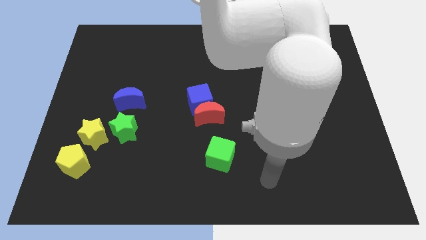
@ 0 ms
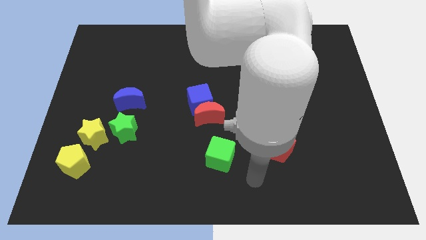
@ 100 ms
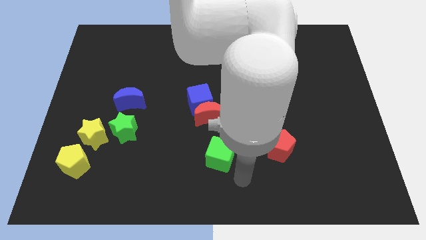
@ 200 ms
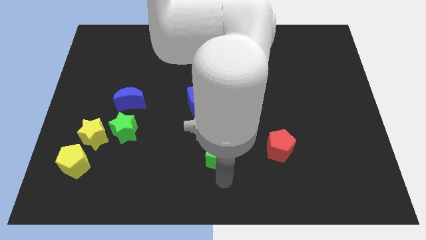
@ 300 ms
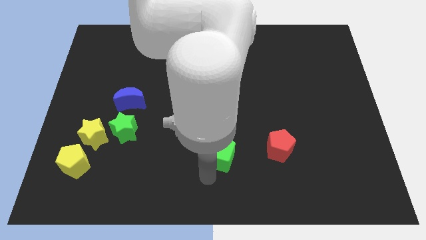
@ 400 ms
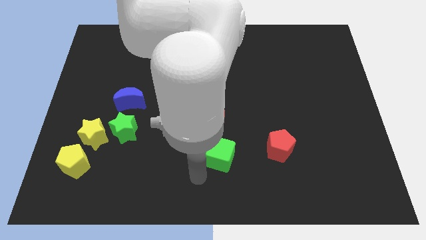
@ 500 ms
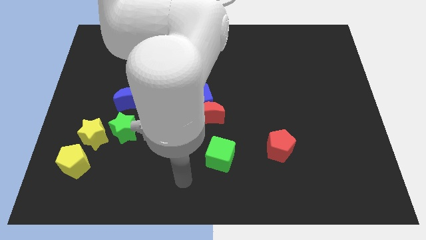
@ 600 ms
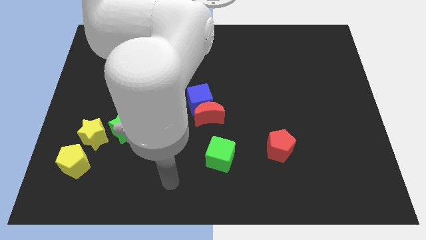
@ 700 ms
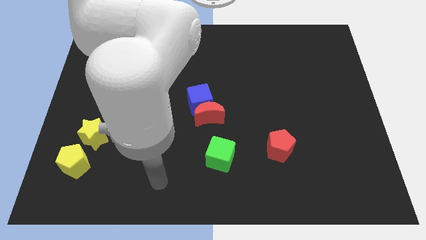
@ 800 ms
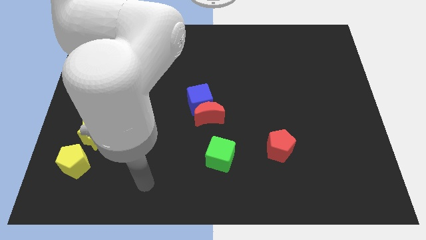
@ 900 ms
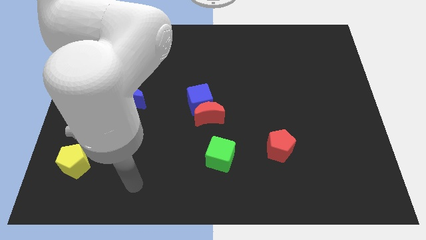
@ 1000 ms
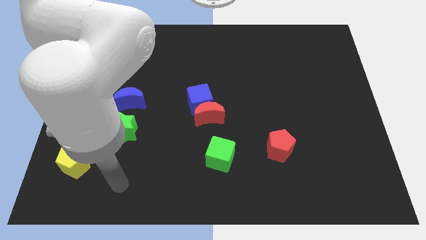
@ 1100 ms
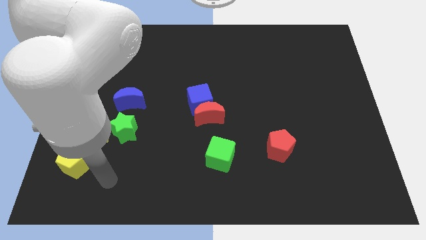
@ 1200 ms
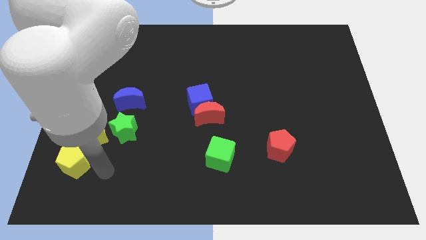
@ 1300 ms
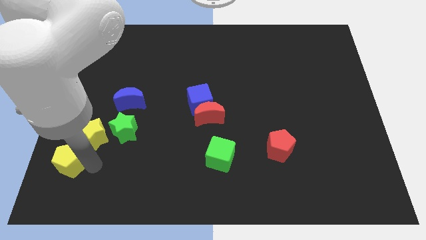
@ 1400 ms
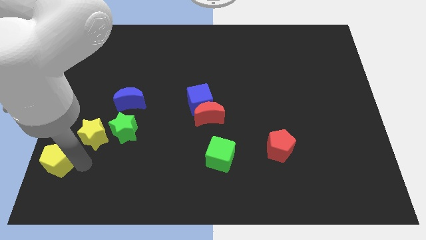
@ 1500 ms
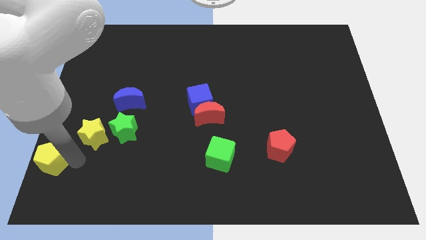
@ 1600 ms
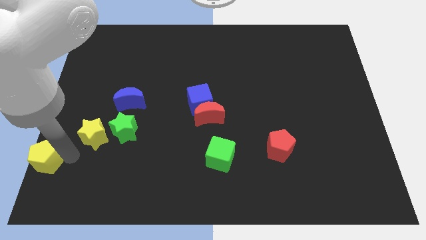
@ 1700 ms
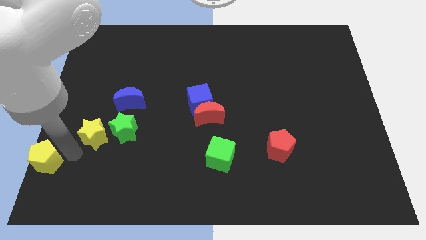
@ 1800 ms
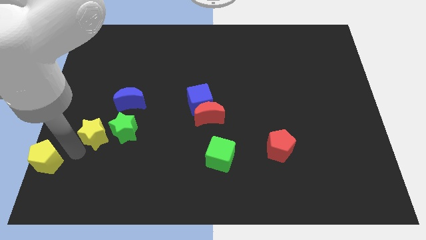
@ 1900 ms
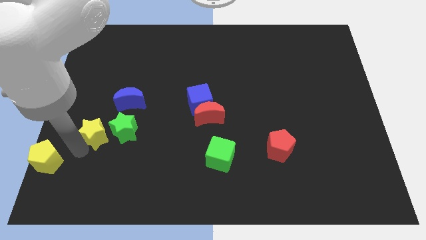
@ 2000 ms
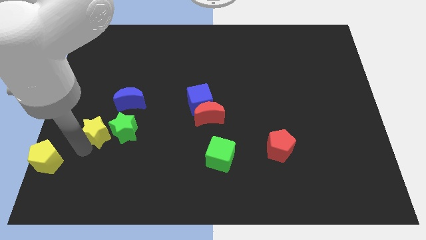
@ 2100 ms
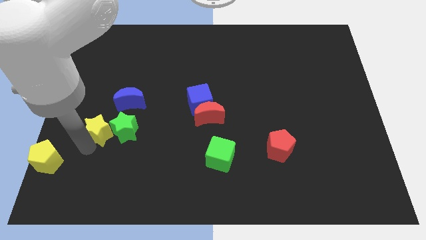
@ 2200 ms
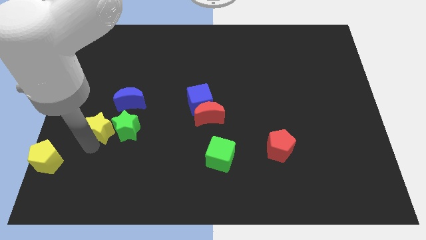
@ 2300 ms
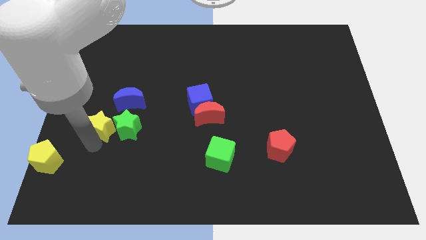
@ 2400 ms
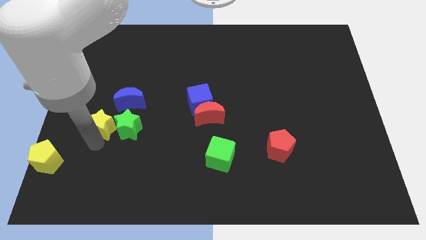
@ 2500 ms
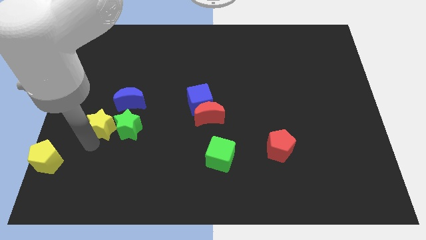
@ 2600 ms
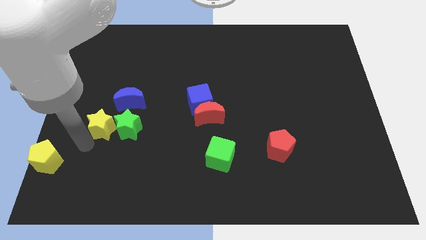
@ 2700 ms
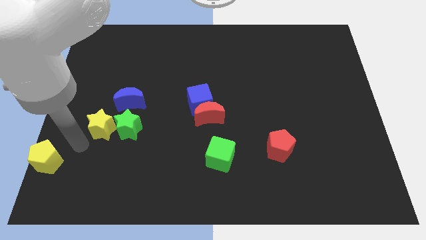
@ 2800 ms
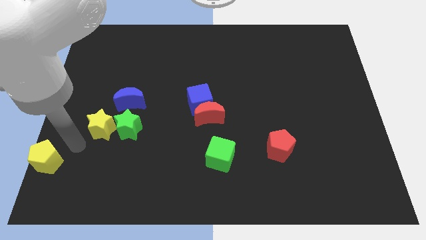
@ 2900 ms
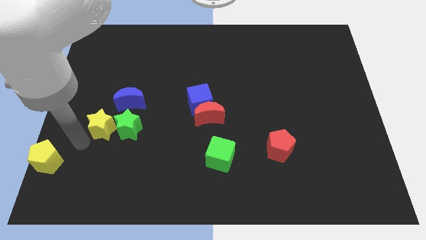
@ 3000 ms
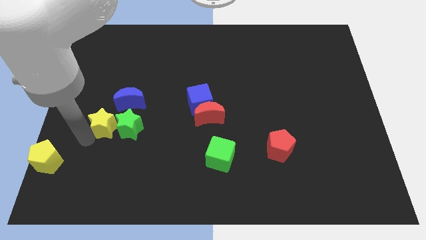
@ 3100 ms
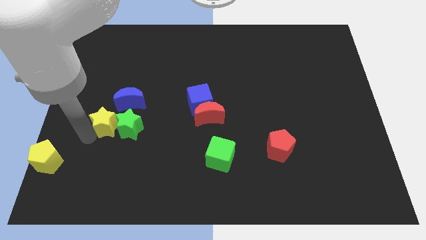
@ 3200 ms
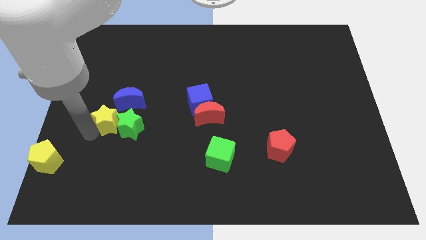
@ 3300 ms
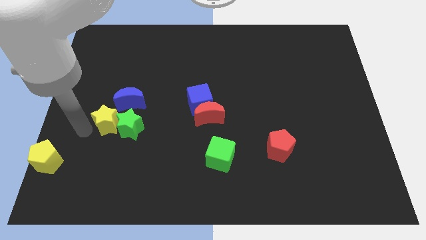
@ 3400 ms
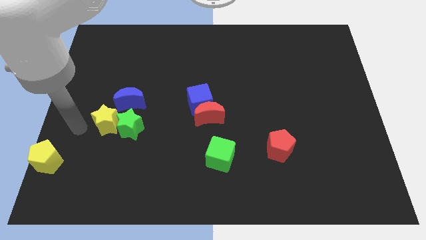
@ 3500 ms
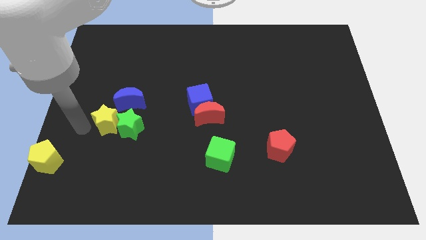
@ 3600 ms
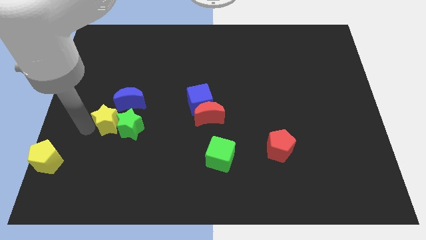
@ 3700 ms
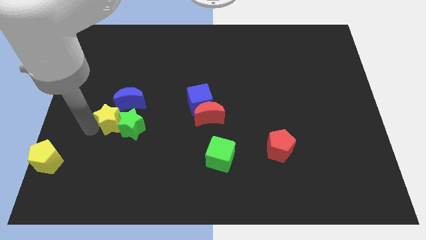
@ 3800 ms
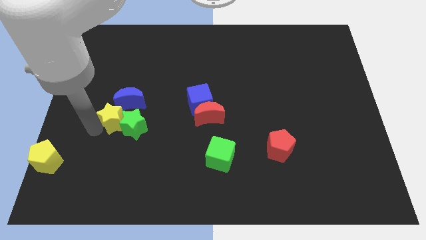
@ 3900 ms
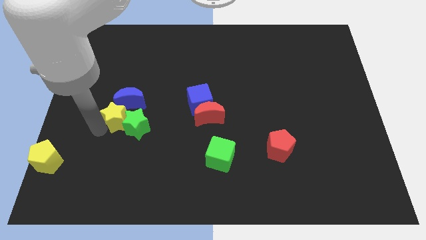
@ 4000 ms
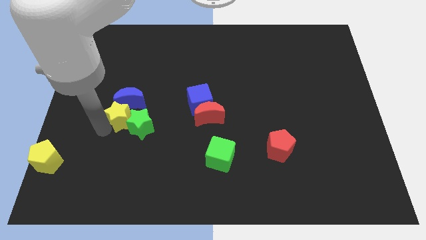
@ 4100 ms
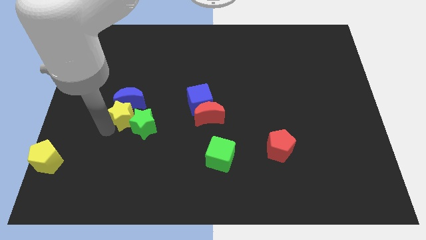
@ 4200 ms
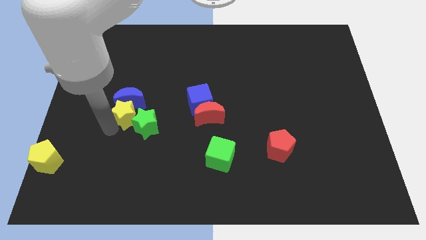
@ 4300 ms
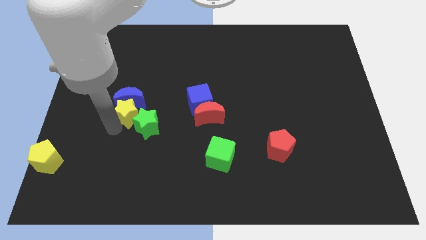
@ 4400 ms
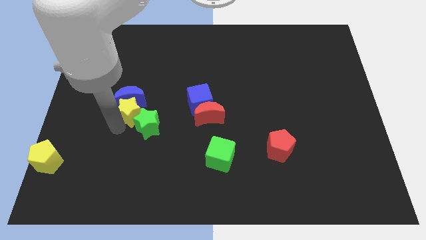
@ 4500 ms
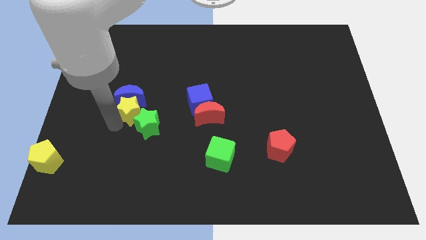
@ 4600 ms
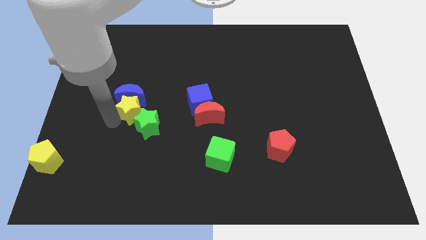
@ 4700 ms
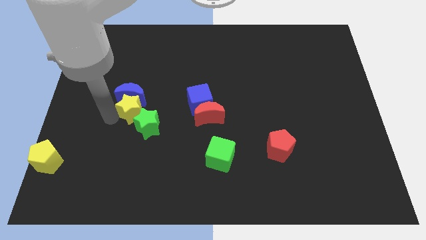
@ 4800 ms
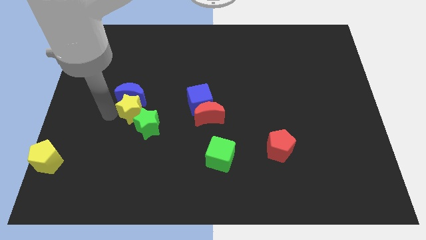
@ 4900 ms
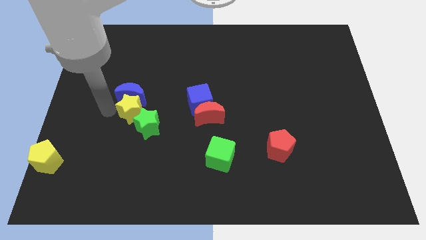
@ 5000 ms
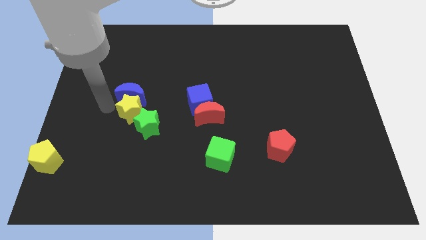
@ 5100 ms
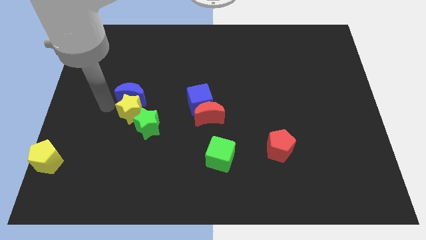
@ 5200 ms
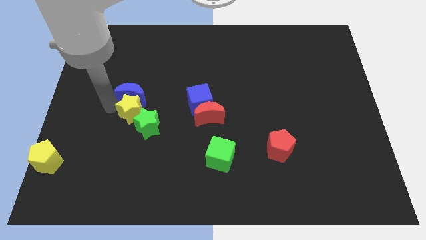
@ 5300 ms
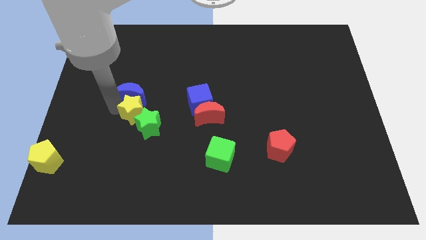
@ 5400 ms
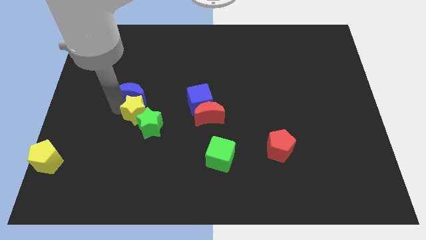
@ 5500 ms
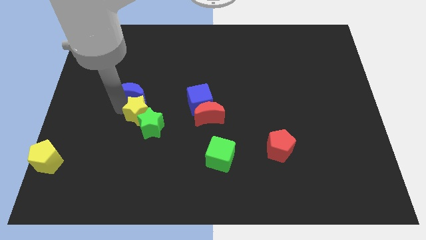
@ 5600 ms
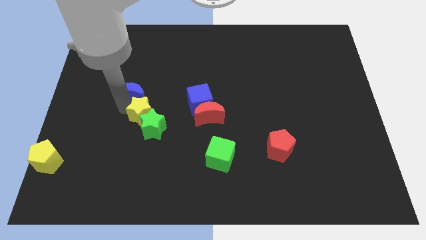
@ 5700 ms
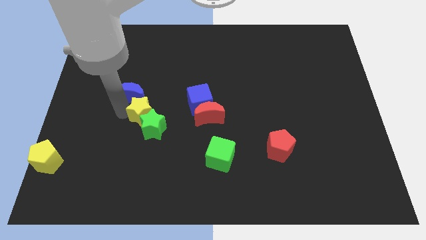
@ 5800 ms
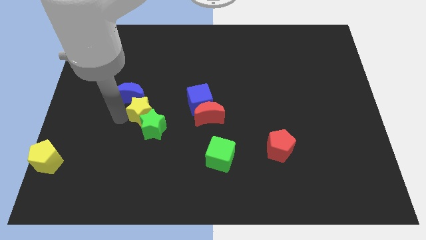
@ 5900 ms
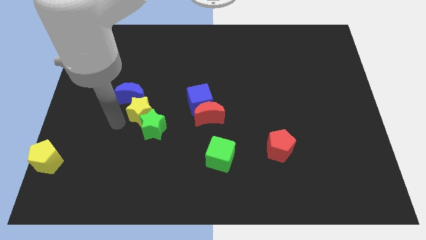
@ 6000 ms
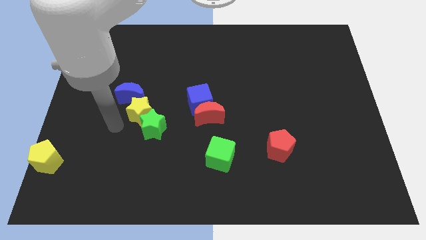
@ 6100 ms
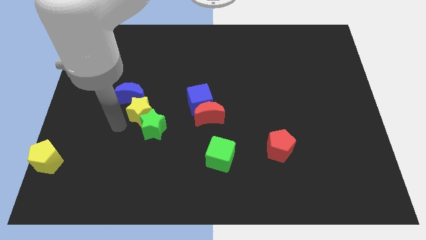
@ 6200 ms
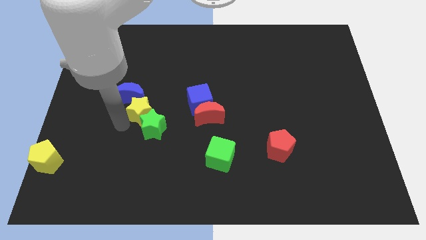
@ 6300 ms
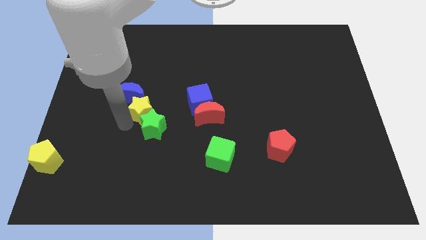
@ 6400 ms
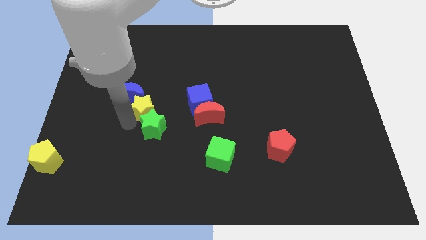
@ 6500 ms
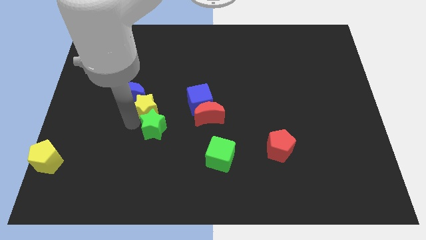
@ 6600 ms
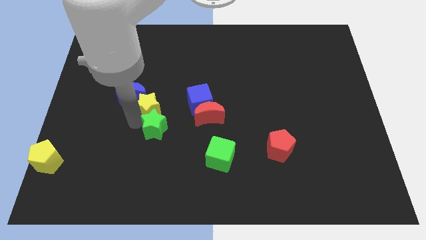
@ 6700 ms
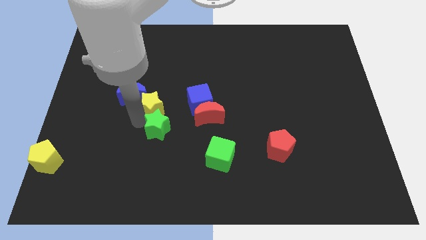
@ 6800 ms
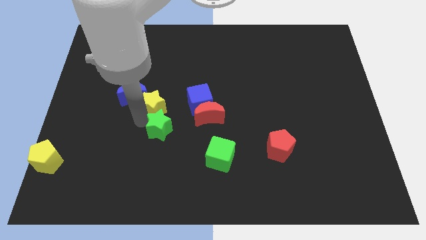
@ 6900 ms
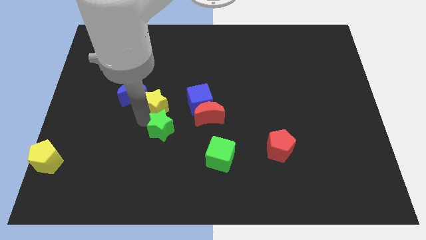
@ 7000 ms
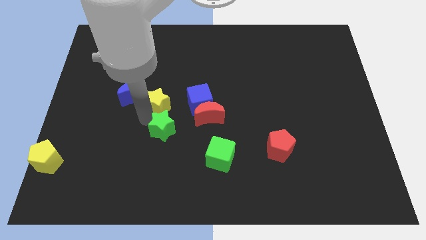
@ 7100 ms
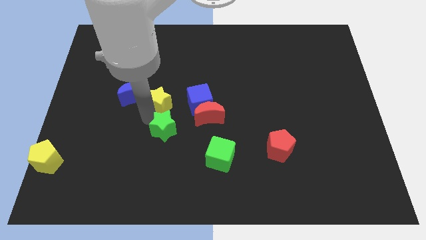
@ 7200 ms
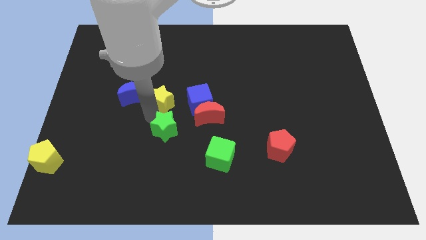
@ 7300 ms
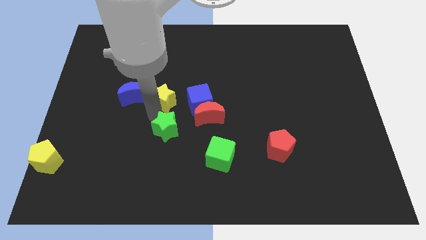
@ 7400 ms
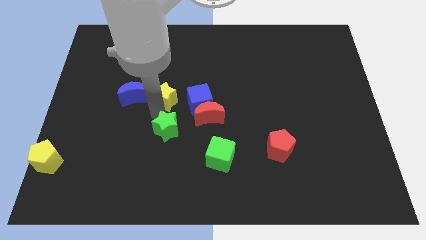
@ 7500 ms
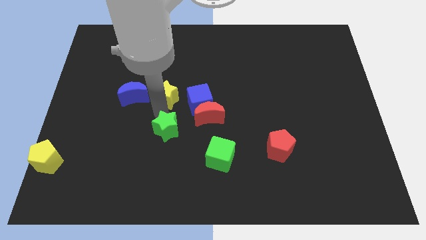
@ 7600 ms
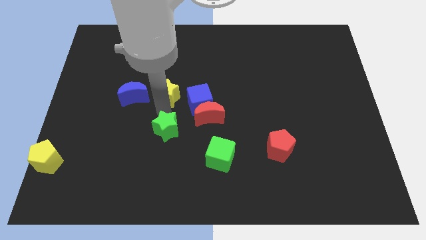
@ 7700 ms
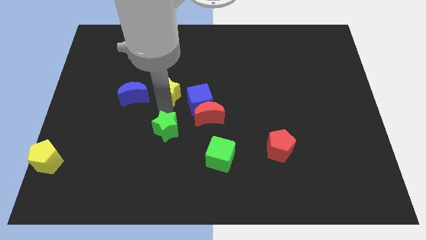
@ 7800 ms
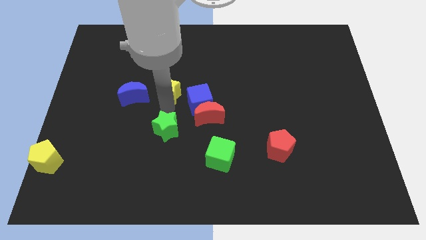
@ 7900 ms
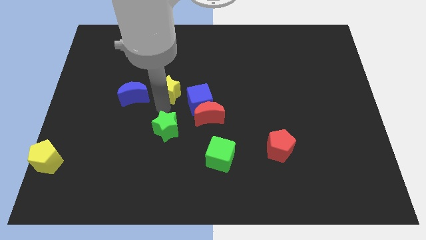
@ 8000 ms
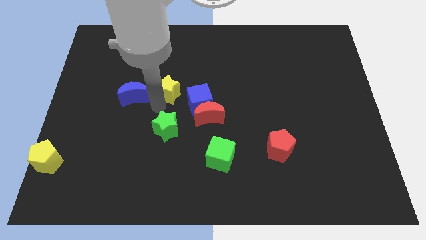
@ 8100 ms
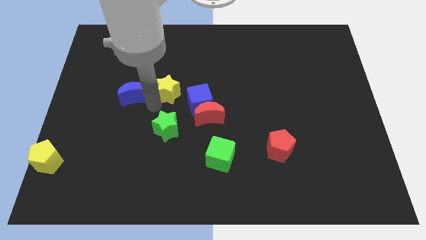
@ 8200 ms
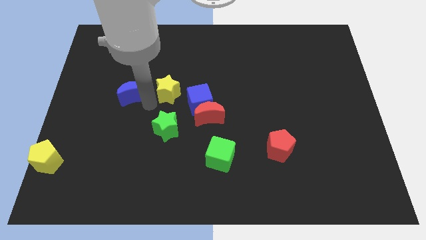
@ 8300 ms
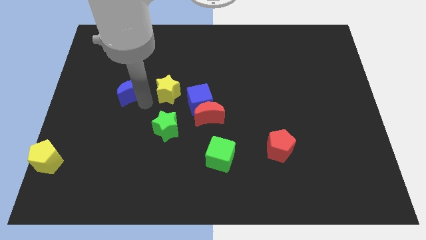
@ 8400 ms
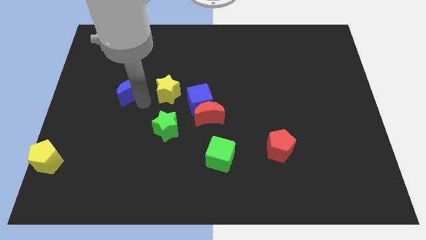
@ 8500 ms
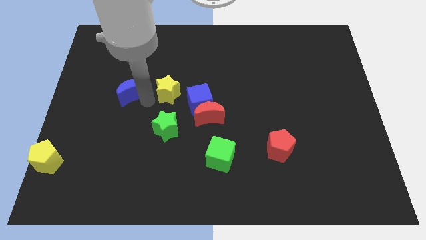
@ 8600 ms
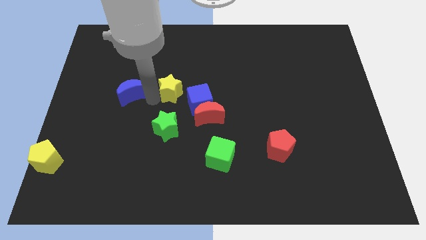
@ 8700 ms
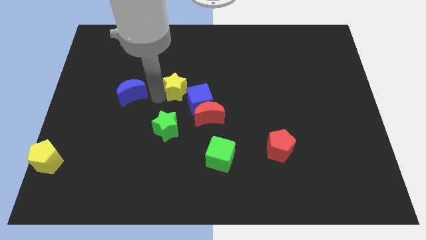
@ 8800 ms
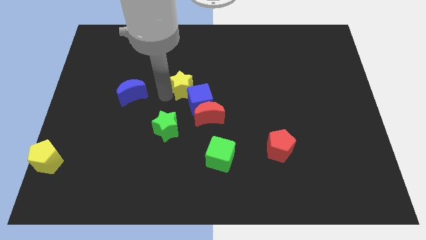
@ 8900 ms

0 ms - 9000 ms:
move the yellow star above the blue cube
